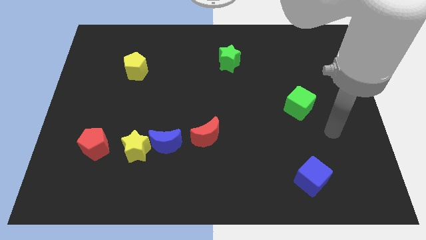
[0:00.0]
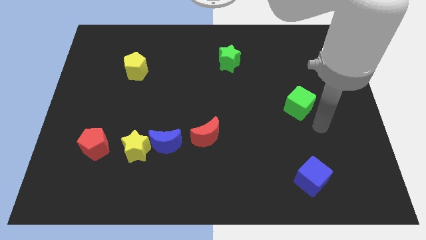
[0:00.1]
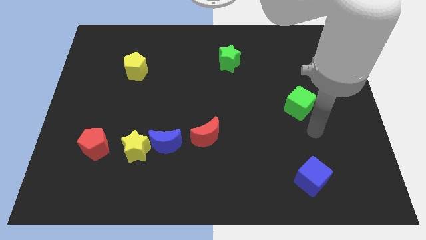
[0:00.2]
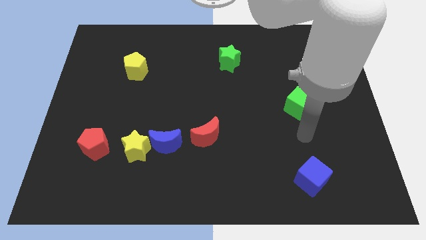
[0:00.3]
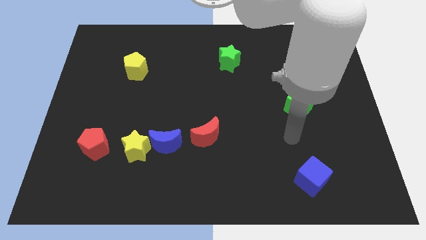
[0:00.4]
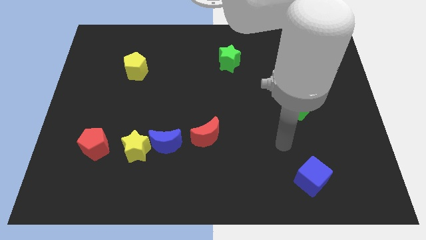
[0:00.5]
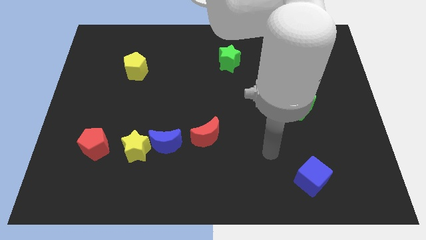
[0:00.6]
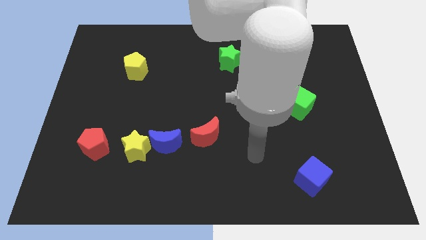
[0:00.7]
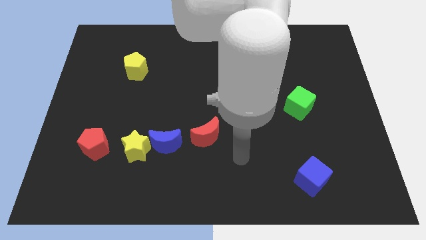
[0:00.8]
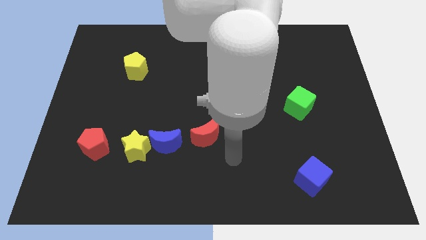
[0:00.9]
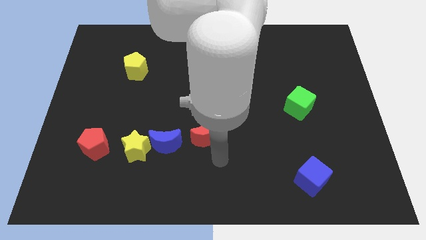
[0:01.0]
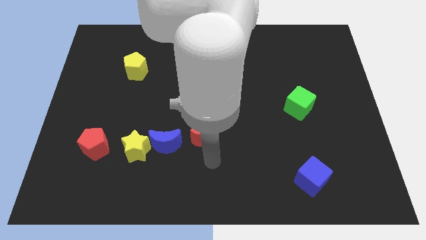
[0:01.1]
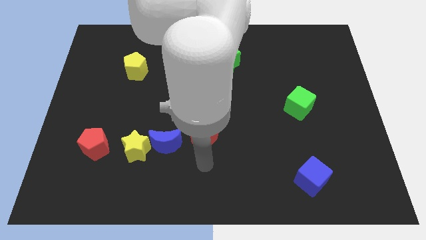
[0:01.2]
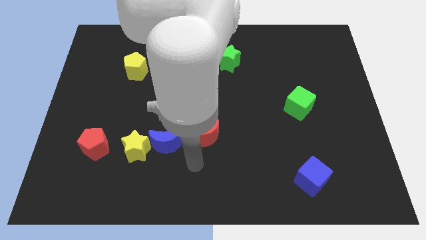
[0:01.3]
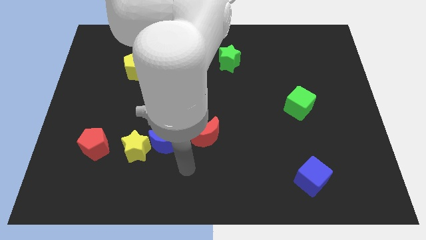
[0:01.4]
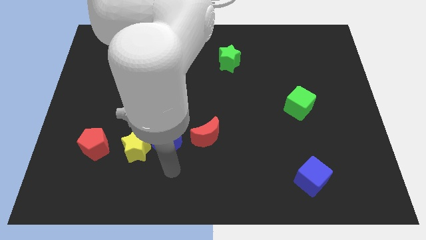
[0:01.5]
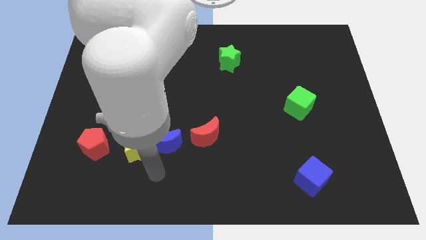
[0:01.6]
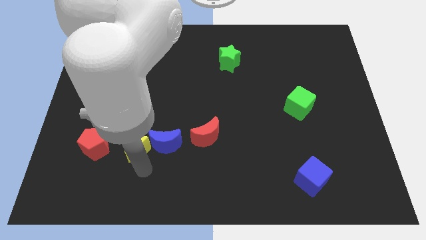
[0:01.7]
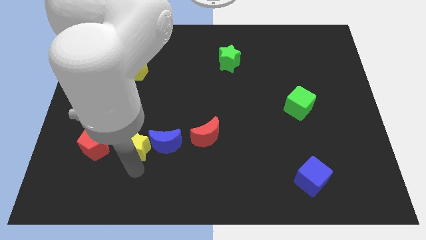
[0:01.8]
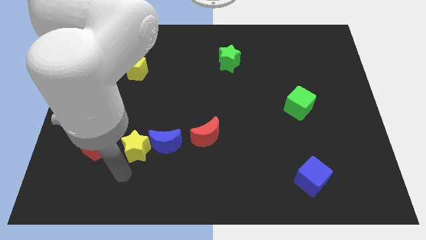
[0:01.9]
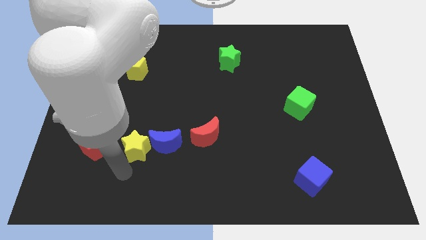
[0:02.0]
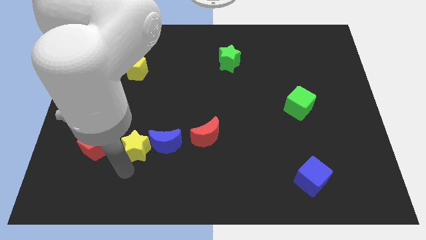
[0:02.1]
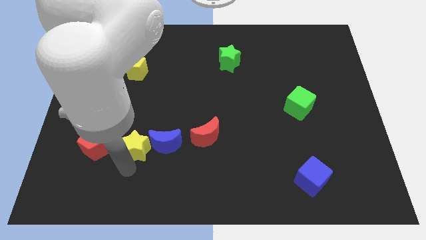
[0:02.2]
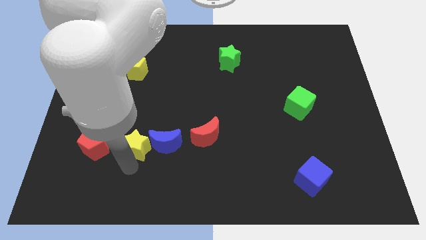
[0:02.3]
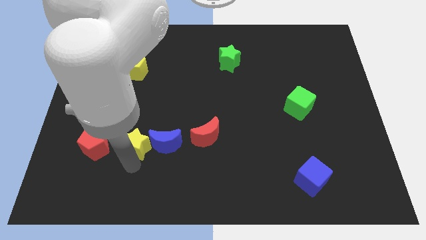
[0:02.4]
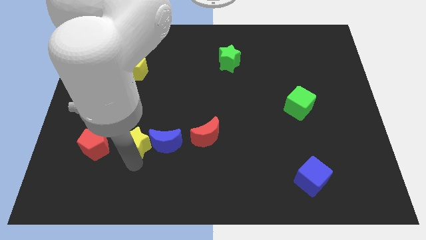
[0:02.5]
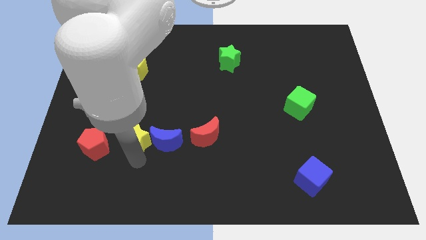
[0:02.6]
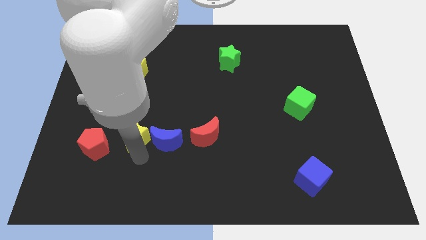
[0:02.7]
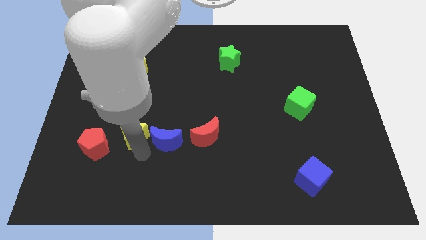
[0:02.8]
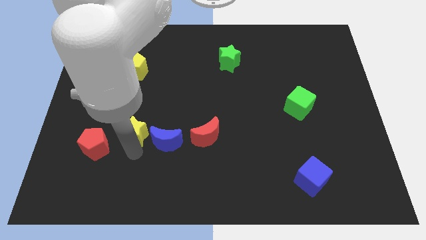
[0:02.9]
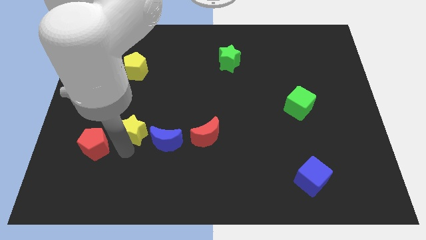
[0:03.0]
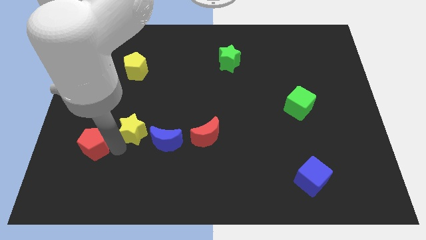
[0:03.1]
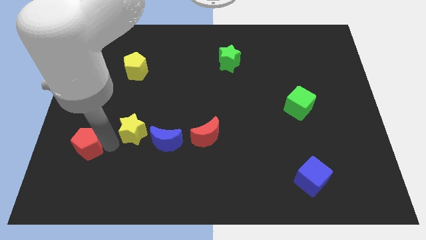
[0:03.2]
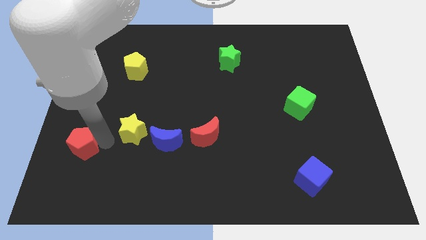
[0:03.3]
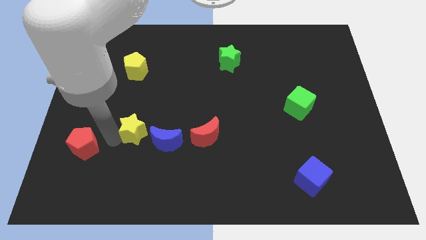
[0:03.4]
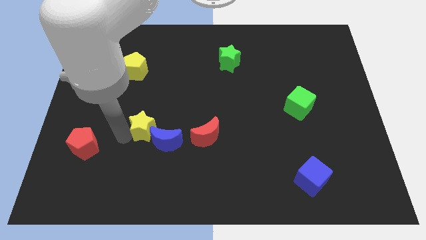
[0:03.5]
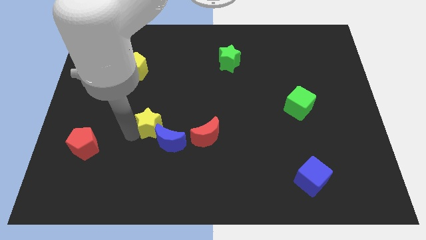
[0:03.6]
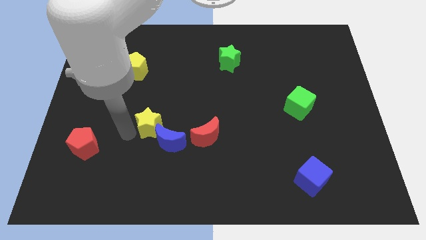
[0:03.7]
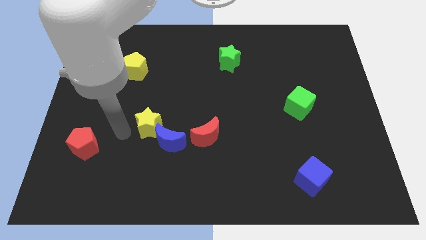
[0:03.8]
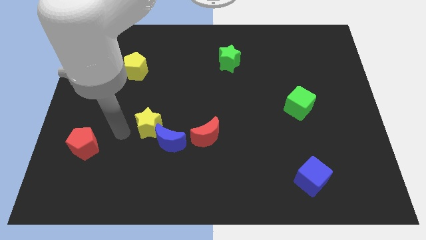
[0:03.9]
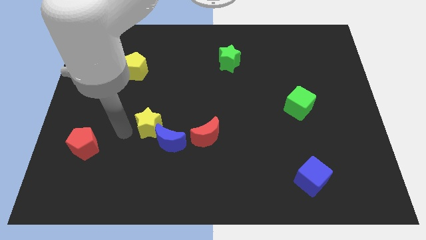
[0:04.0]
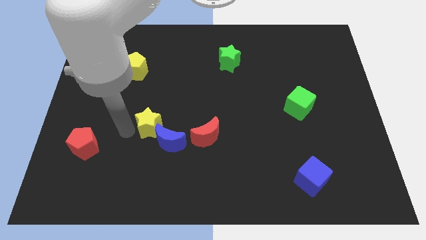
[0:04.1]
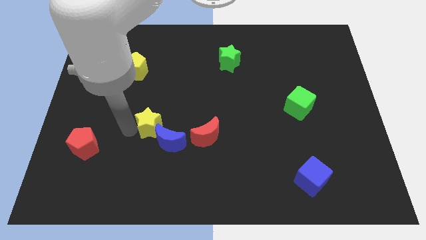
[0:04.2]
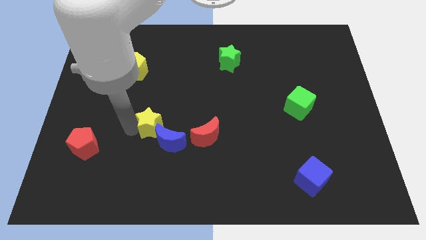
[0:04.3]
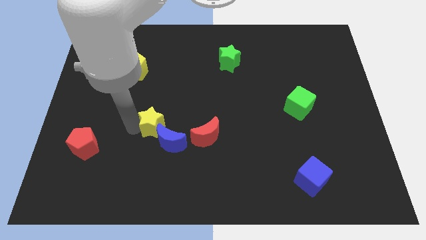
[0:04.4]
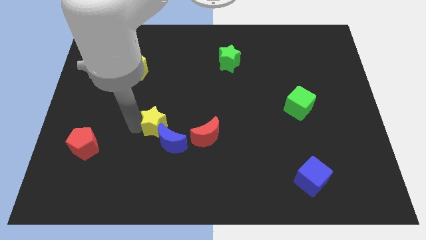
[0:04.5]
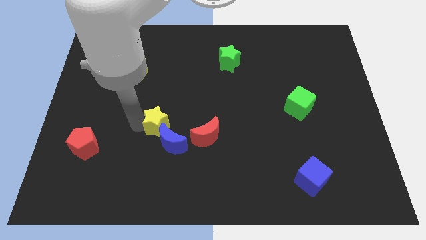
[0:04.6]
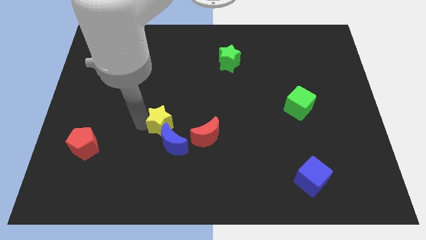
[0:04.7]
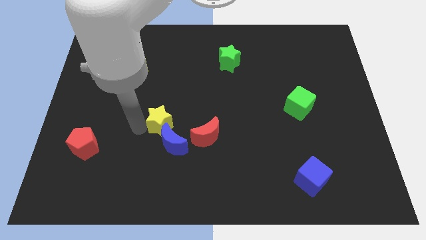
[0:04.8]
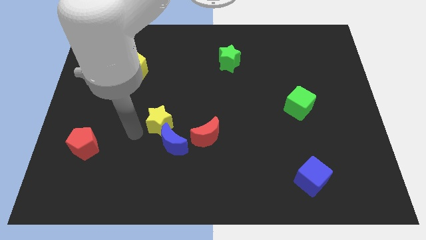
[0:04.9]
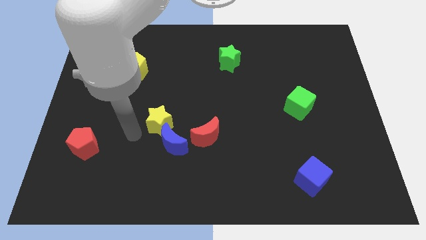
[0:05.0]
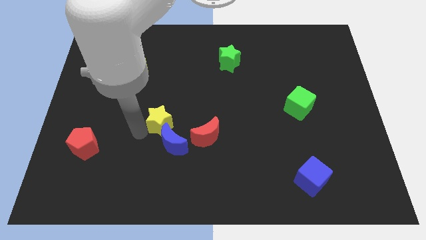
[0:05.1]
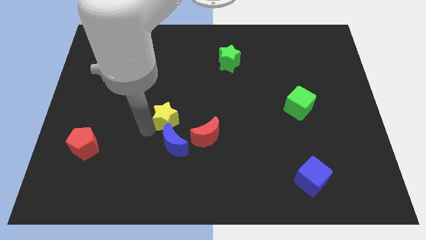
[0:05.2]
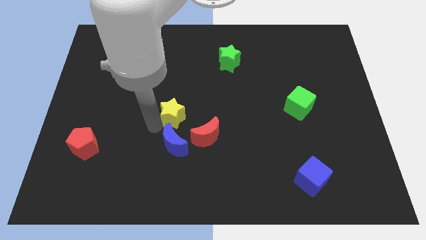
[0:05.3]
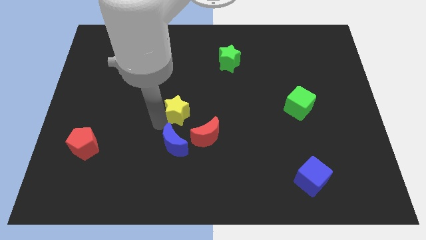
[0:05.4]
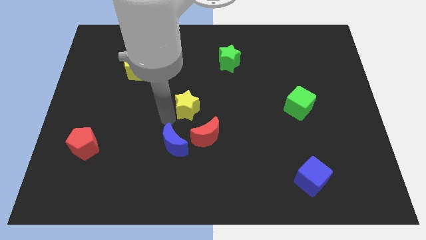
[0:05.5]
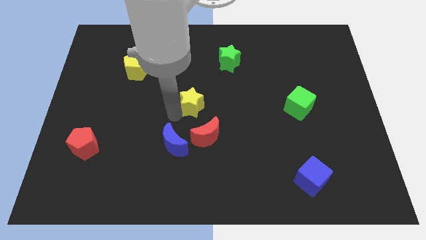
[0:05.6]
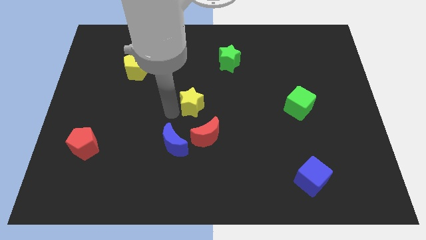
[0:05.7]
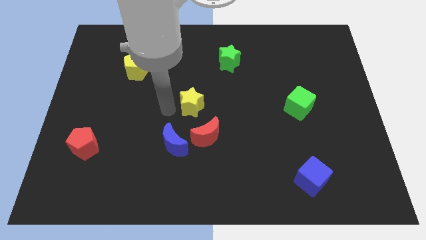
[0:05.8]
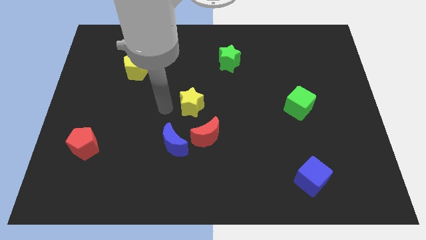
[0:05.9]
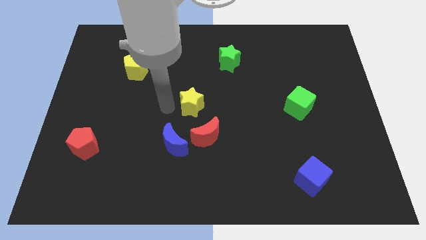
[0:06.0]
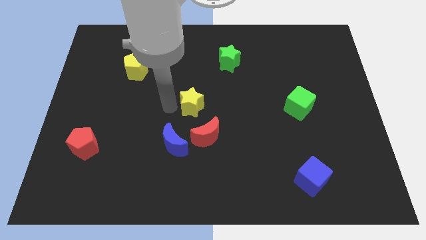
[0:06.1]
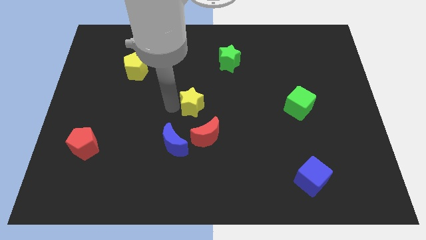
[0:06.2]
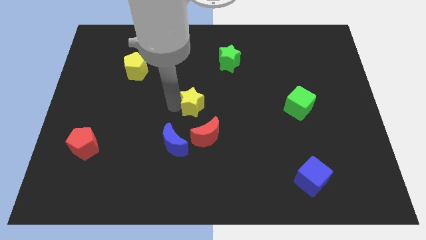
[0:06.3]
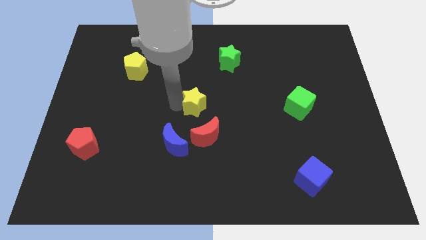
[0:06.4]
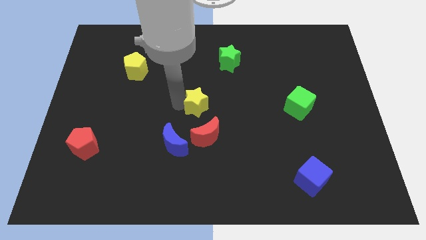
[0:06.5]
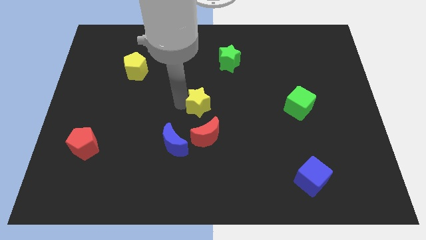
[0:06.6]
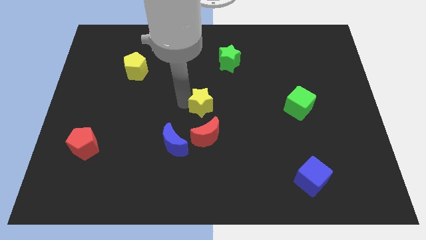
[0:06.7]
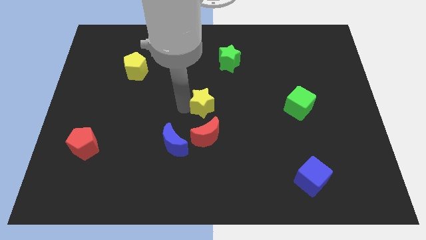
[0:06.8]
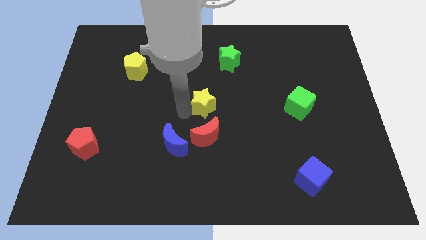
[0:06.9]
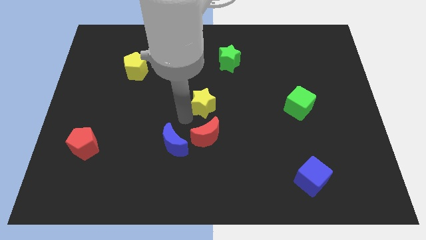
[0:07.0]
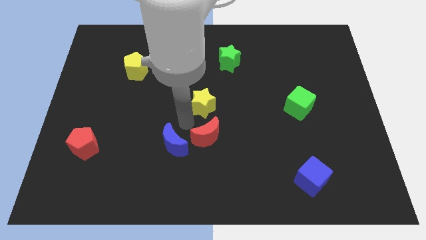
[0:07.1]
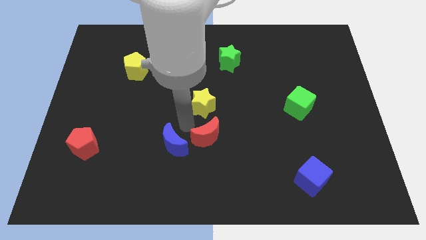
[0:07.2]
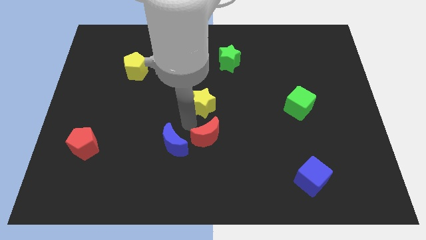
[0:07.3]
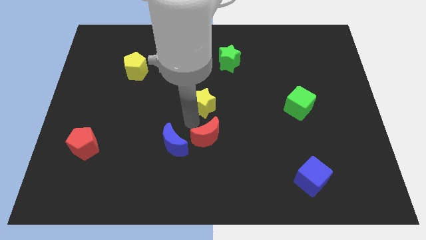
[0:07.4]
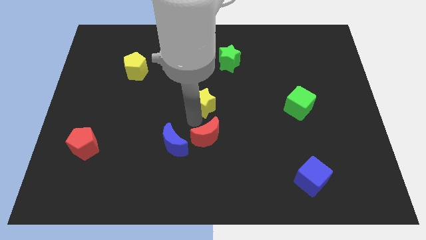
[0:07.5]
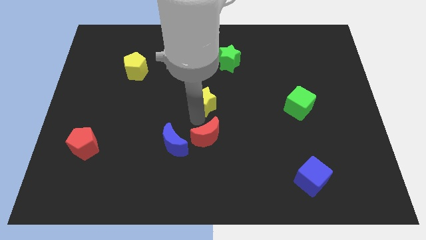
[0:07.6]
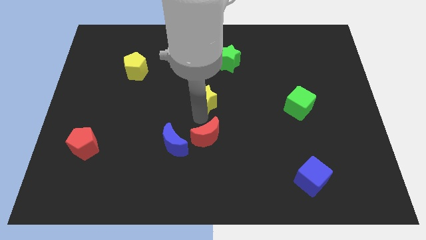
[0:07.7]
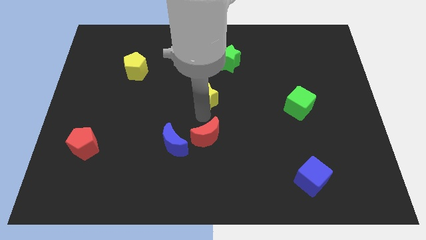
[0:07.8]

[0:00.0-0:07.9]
push the yellow star up and right

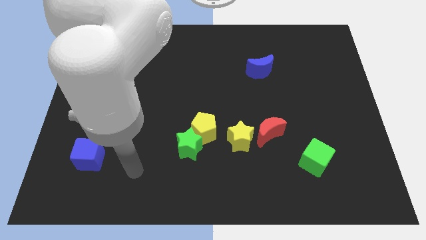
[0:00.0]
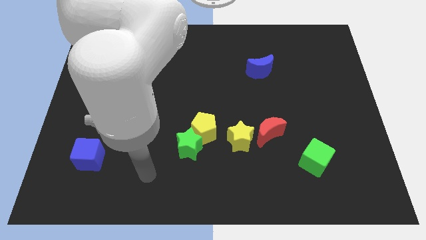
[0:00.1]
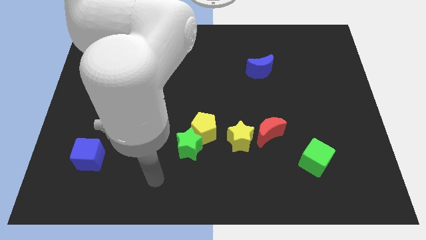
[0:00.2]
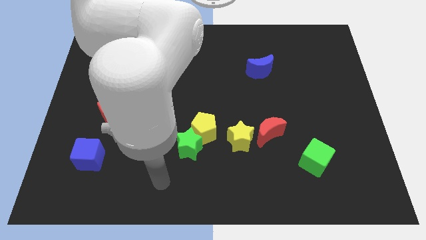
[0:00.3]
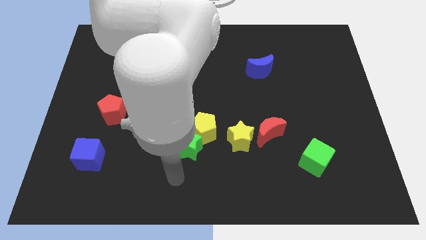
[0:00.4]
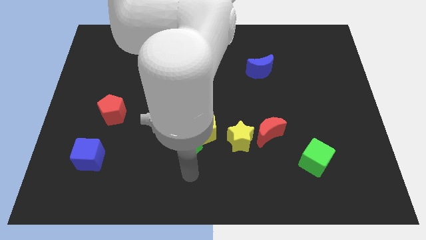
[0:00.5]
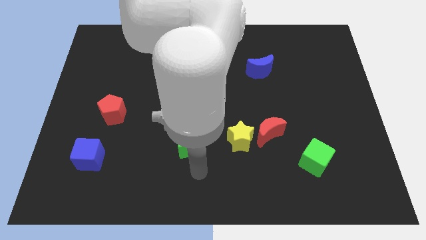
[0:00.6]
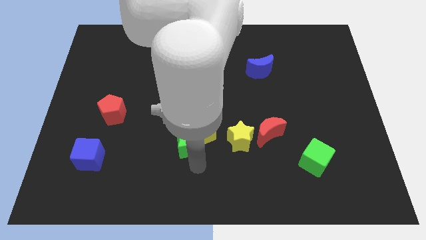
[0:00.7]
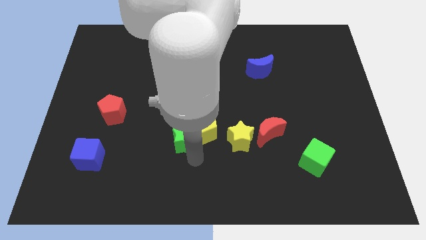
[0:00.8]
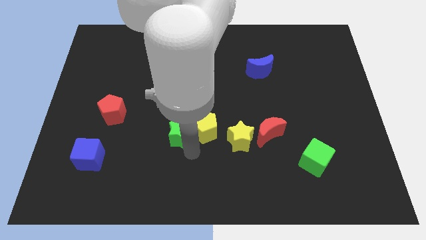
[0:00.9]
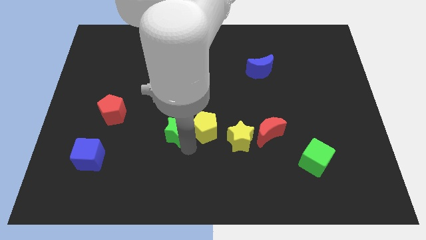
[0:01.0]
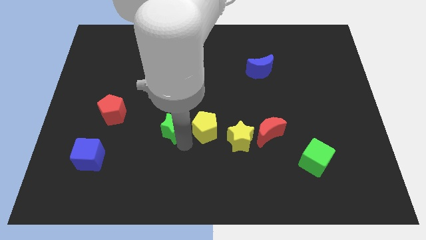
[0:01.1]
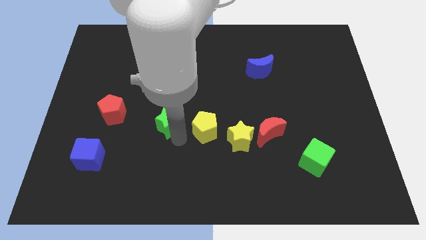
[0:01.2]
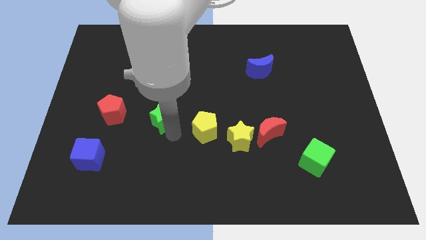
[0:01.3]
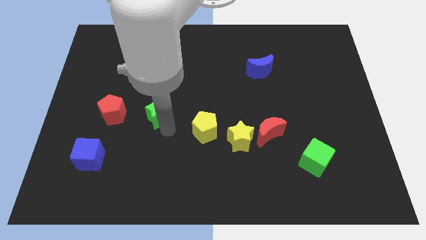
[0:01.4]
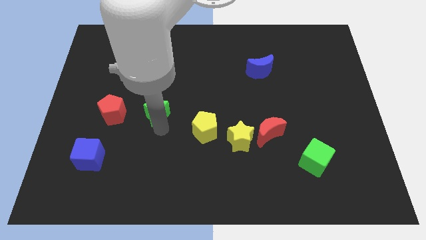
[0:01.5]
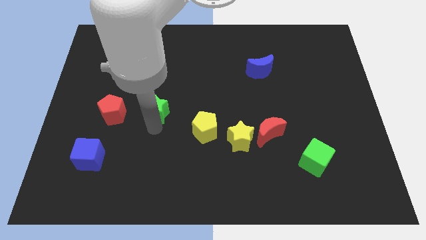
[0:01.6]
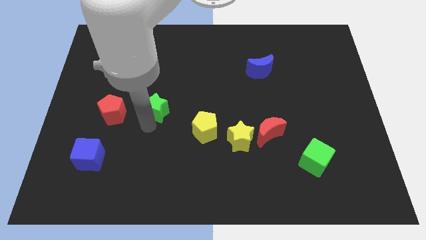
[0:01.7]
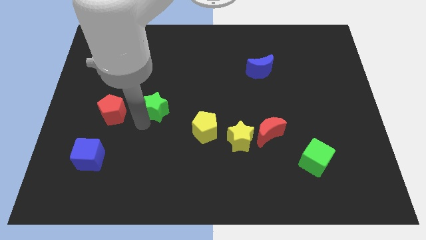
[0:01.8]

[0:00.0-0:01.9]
slightly slide the green star up
